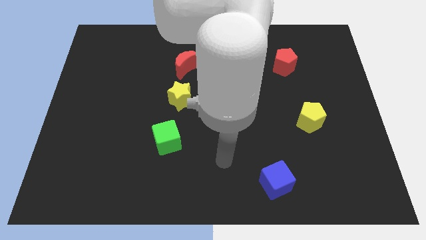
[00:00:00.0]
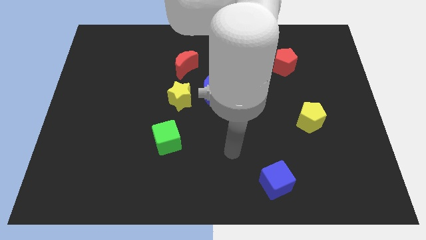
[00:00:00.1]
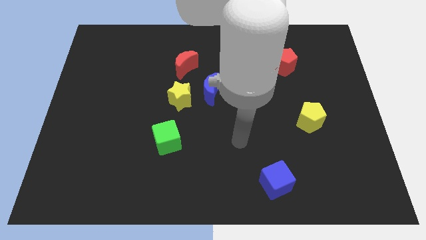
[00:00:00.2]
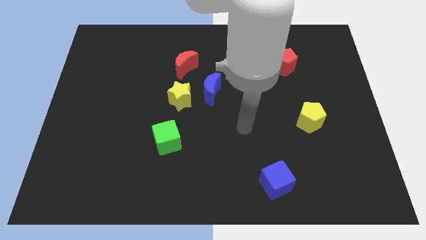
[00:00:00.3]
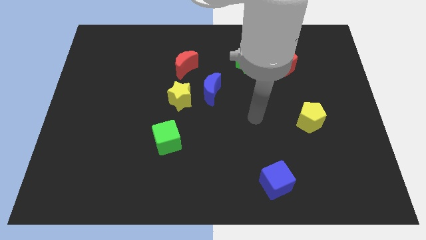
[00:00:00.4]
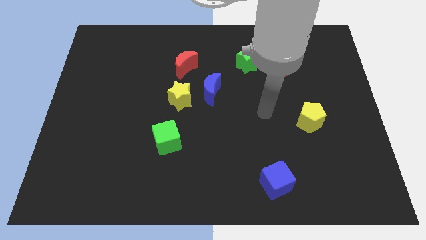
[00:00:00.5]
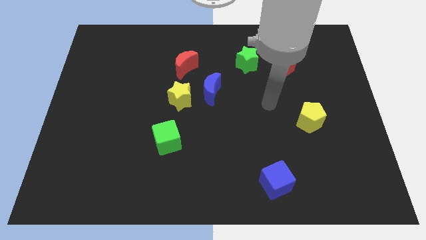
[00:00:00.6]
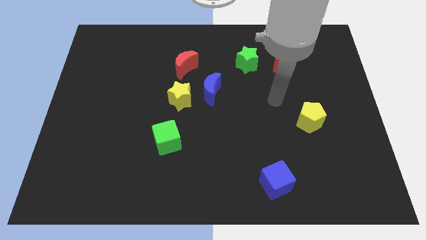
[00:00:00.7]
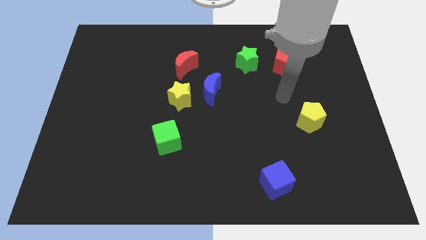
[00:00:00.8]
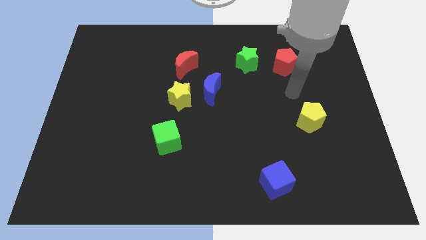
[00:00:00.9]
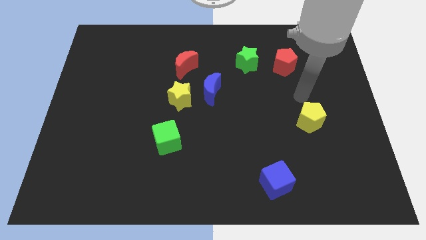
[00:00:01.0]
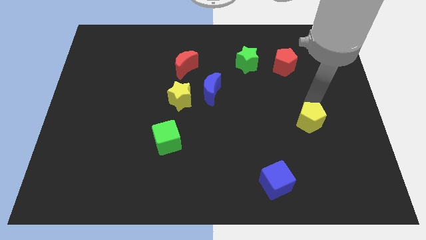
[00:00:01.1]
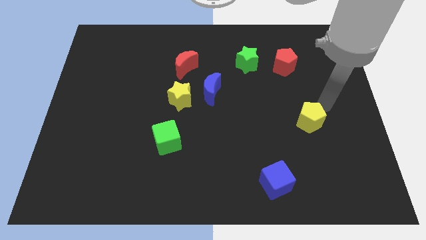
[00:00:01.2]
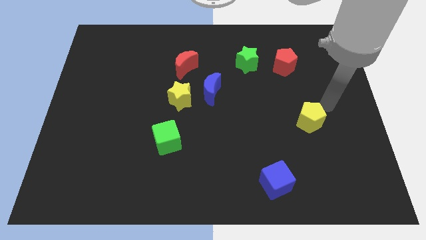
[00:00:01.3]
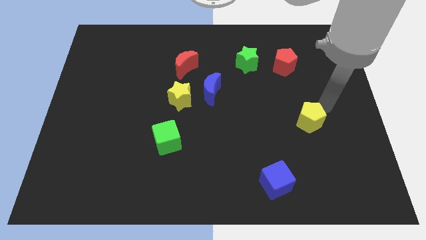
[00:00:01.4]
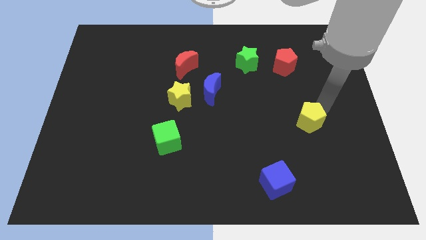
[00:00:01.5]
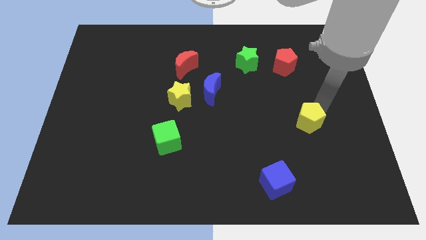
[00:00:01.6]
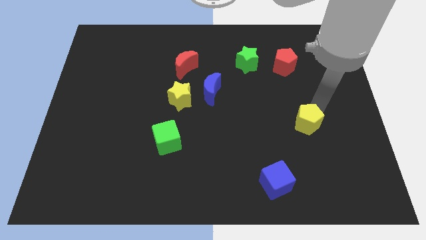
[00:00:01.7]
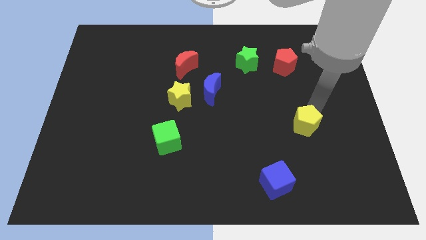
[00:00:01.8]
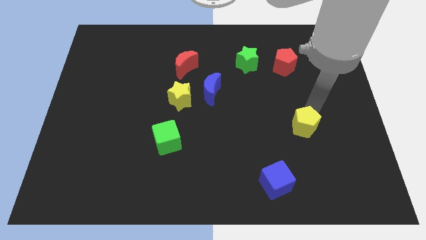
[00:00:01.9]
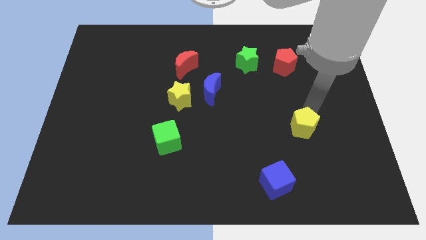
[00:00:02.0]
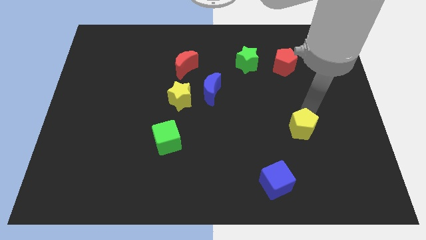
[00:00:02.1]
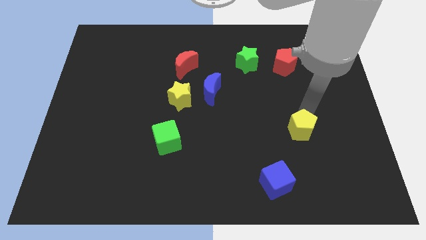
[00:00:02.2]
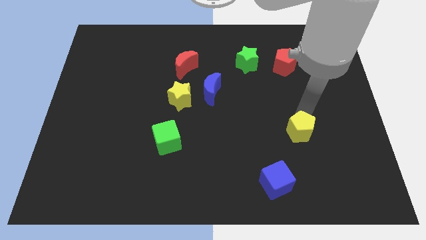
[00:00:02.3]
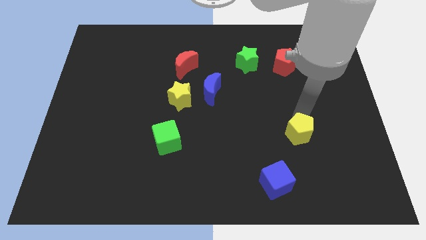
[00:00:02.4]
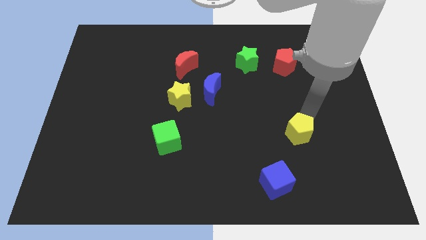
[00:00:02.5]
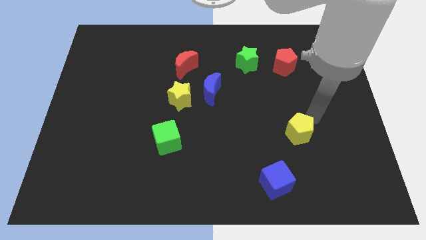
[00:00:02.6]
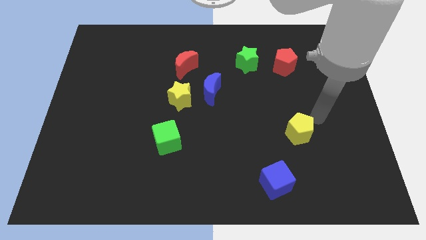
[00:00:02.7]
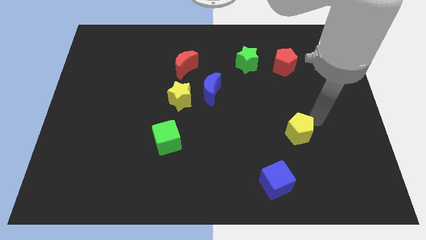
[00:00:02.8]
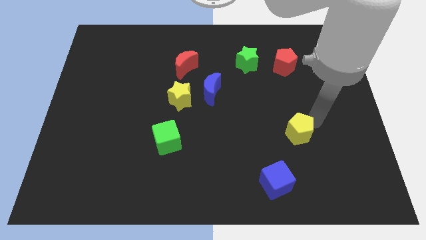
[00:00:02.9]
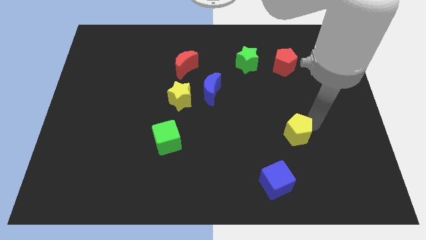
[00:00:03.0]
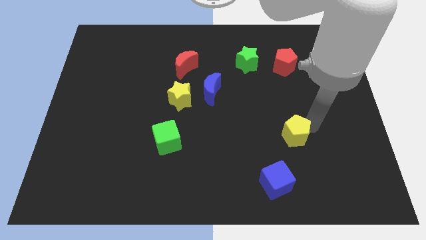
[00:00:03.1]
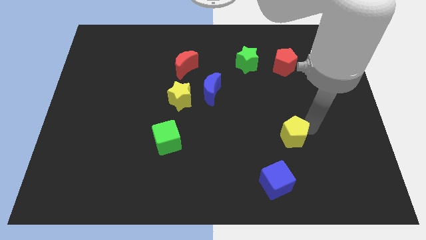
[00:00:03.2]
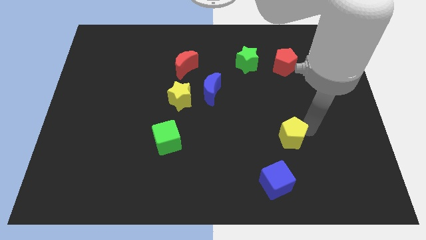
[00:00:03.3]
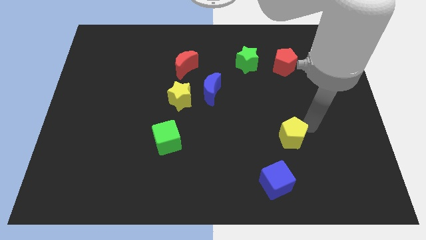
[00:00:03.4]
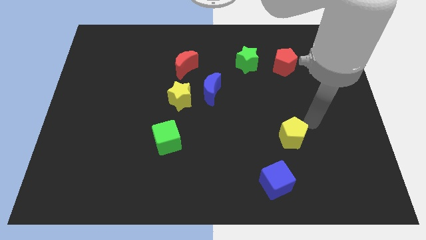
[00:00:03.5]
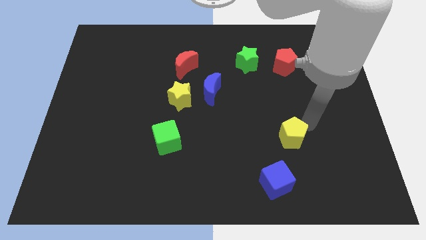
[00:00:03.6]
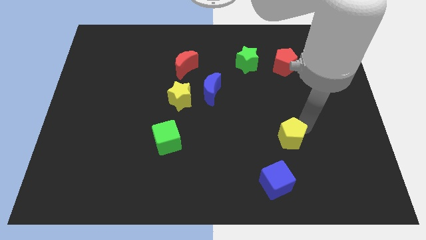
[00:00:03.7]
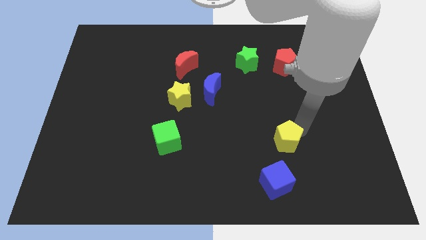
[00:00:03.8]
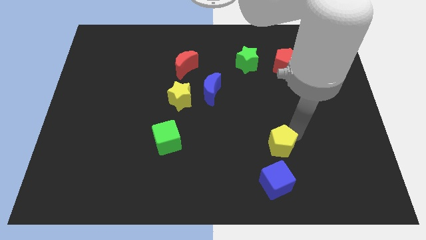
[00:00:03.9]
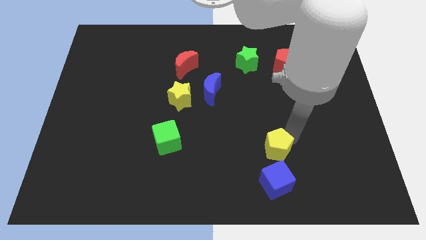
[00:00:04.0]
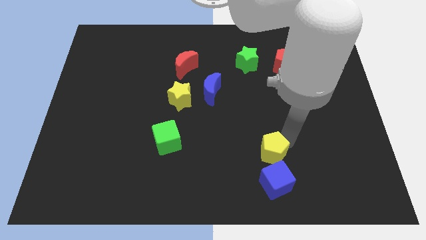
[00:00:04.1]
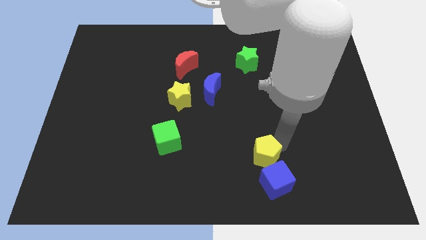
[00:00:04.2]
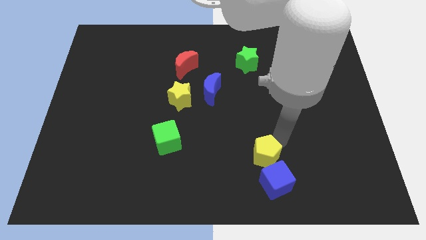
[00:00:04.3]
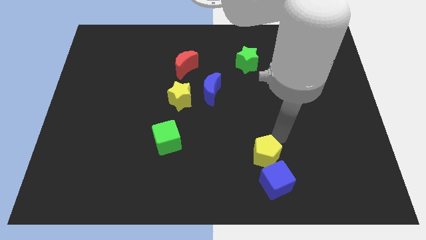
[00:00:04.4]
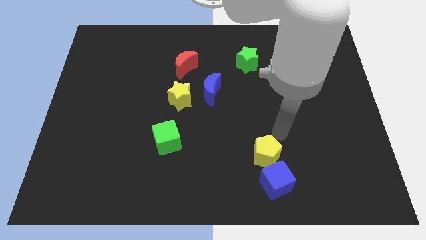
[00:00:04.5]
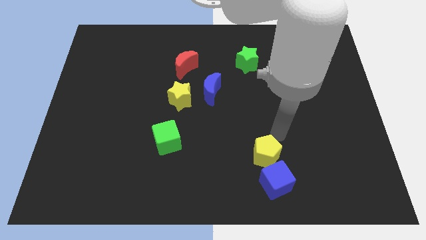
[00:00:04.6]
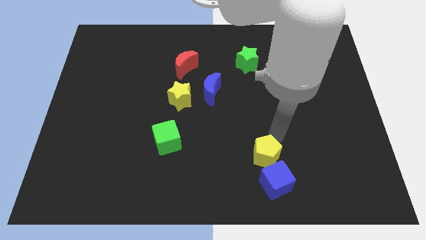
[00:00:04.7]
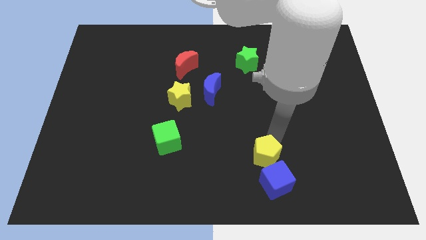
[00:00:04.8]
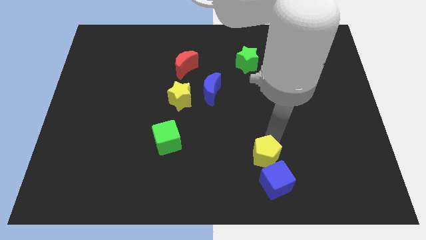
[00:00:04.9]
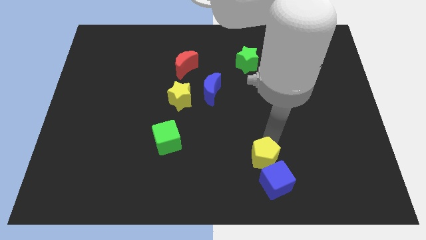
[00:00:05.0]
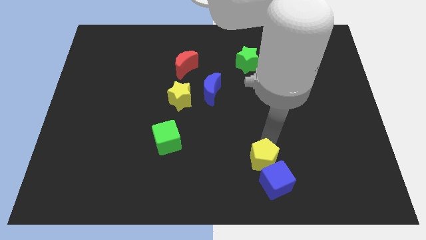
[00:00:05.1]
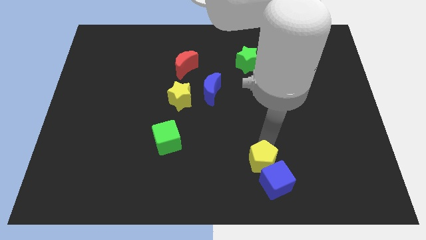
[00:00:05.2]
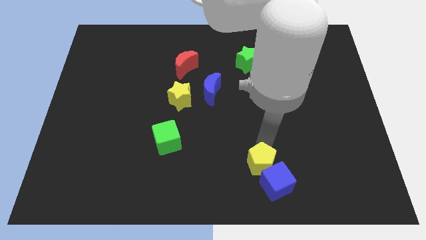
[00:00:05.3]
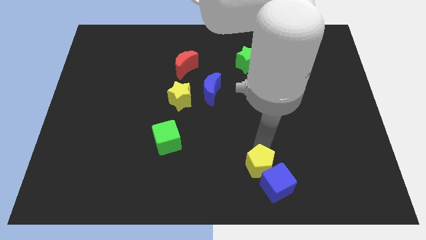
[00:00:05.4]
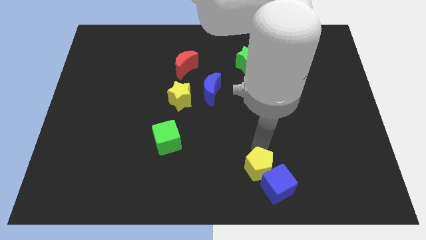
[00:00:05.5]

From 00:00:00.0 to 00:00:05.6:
put the yellow pentagon to the bottom side
